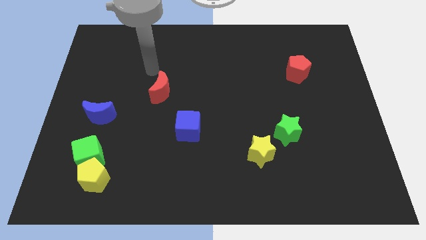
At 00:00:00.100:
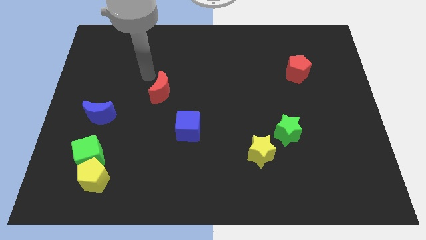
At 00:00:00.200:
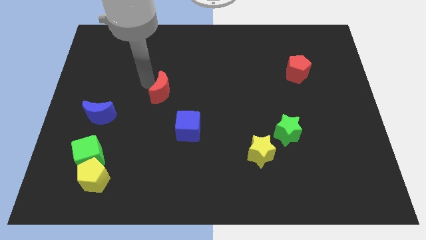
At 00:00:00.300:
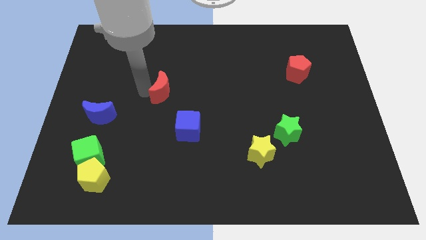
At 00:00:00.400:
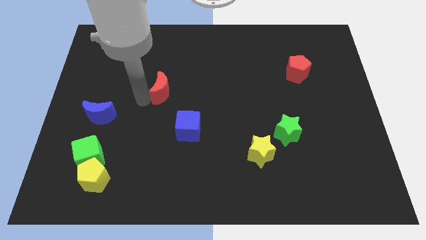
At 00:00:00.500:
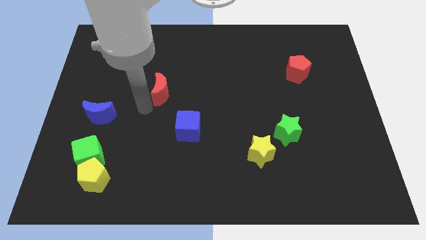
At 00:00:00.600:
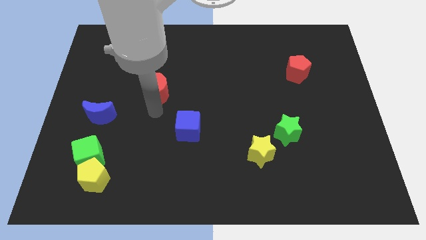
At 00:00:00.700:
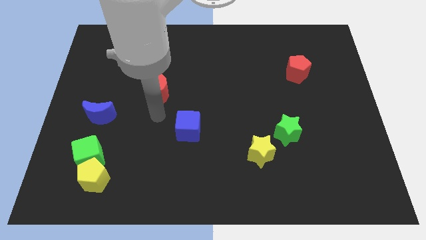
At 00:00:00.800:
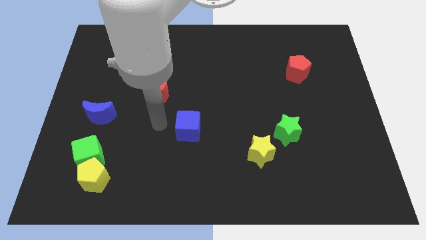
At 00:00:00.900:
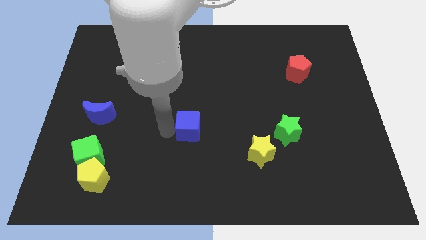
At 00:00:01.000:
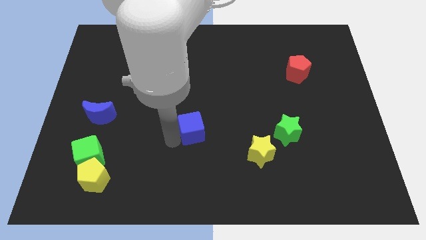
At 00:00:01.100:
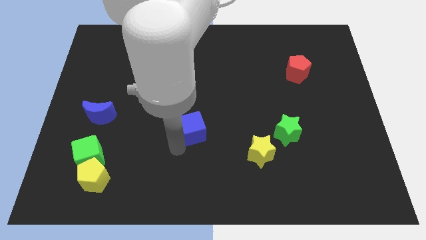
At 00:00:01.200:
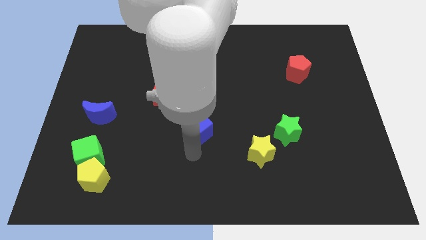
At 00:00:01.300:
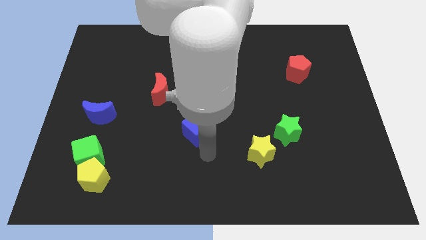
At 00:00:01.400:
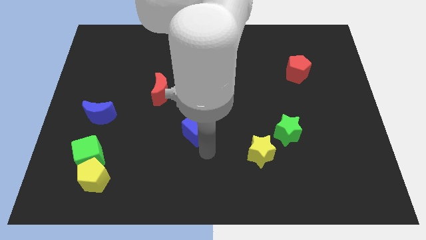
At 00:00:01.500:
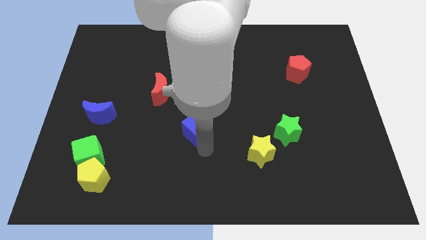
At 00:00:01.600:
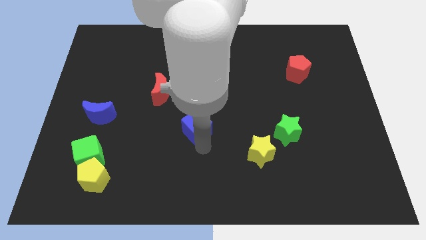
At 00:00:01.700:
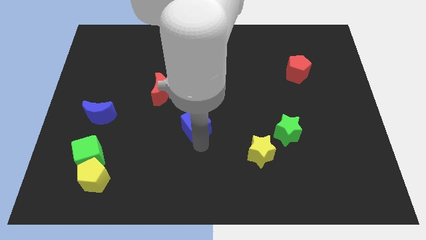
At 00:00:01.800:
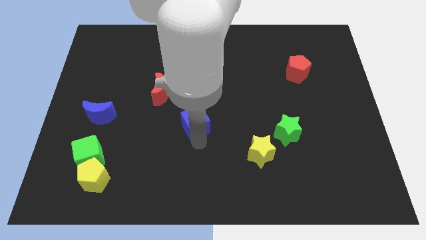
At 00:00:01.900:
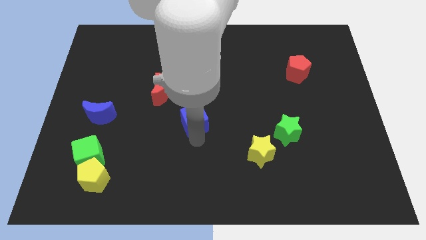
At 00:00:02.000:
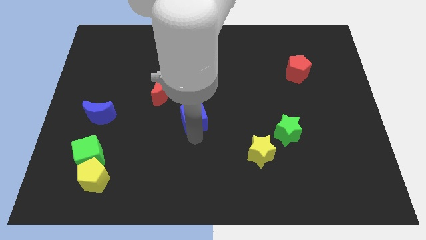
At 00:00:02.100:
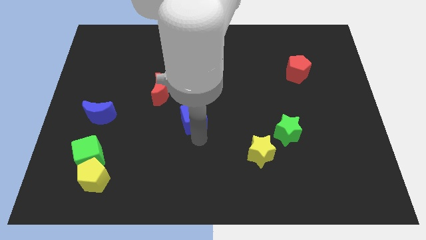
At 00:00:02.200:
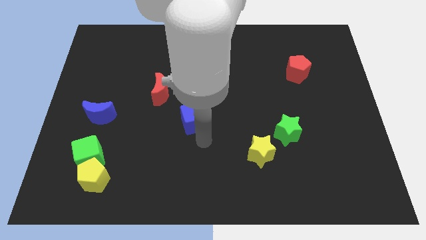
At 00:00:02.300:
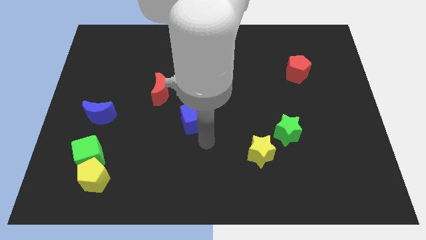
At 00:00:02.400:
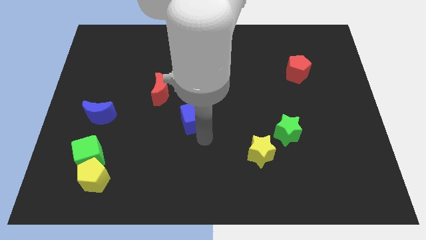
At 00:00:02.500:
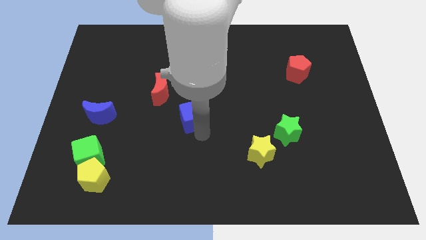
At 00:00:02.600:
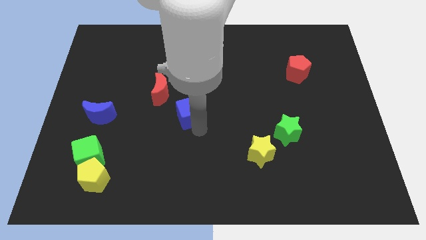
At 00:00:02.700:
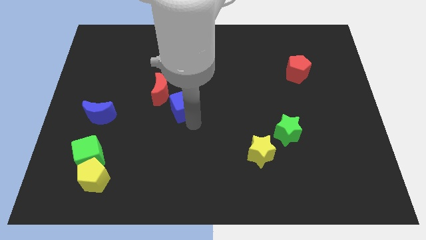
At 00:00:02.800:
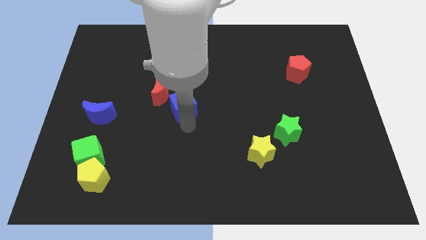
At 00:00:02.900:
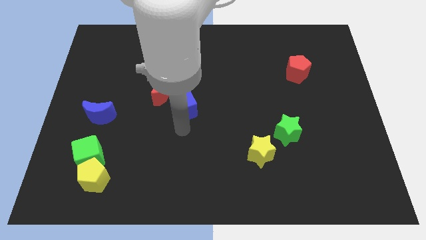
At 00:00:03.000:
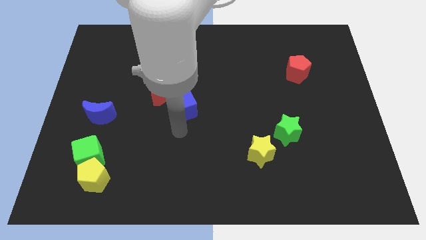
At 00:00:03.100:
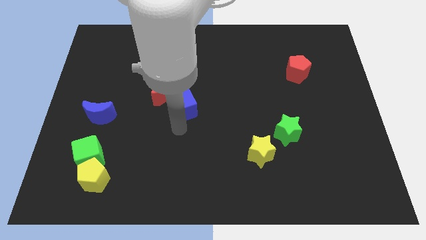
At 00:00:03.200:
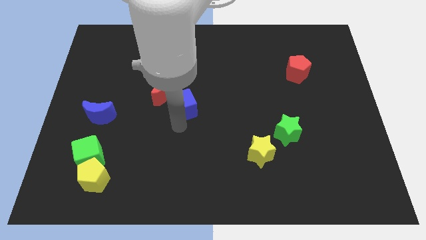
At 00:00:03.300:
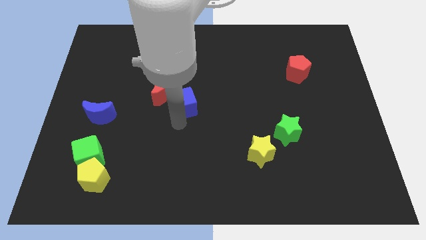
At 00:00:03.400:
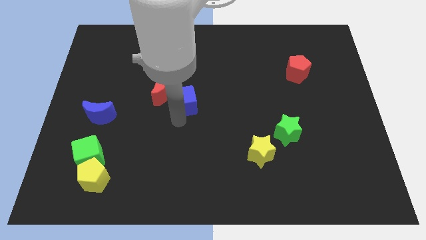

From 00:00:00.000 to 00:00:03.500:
move the blue cube upwards a bit

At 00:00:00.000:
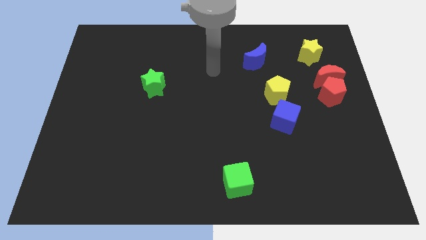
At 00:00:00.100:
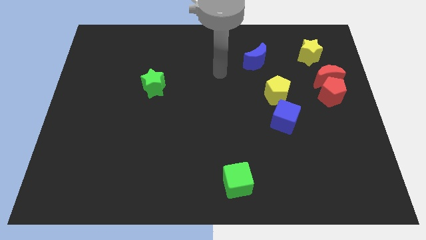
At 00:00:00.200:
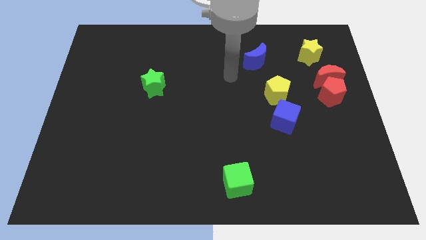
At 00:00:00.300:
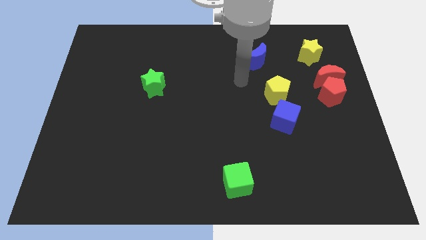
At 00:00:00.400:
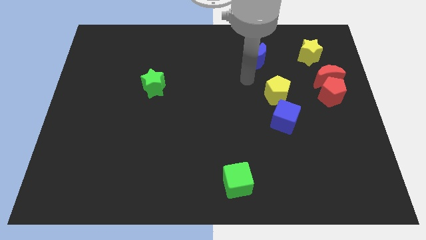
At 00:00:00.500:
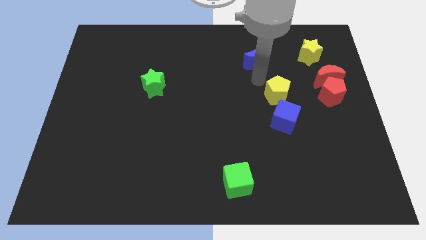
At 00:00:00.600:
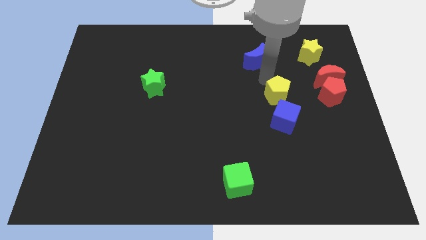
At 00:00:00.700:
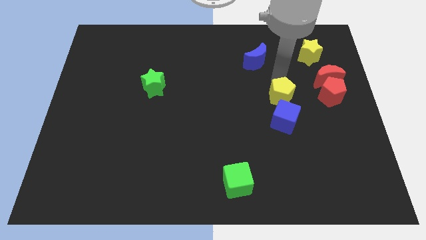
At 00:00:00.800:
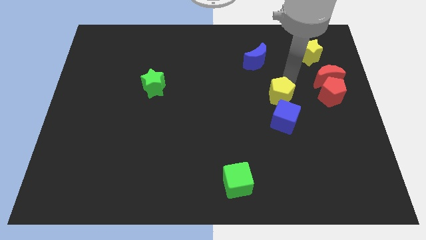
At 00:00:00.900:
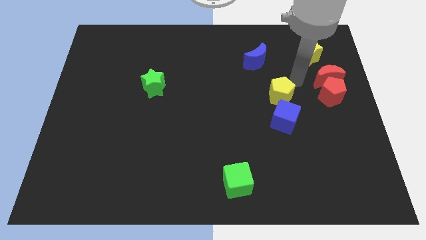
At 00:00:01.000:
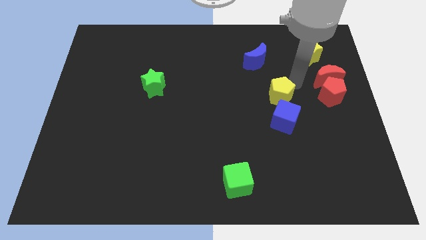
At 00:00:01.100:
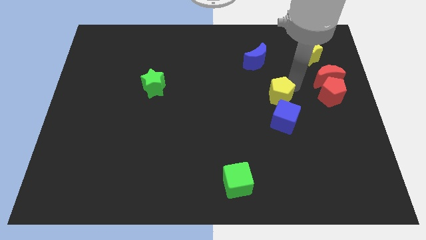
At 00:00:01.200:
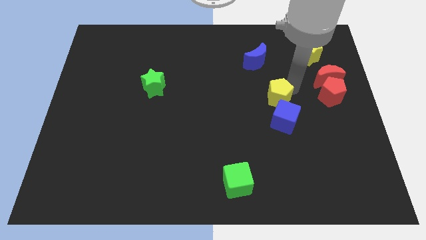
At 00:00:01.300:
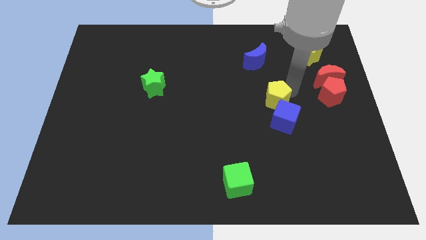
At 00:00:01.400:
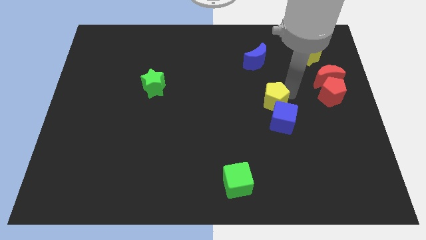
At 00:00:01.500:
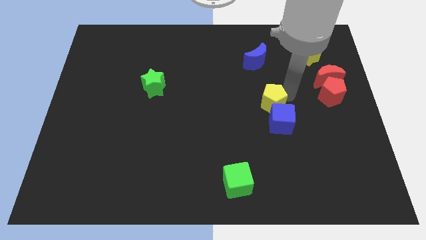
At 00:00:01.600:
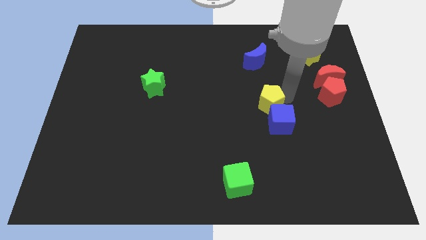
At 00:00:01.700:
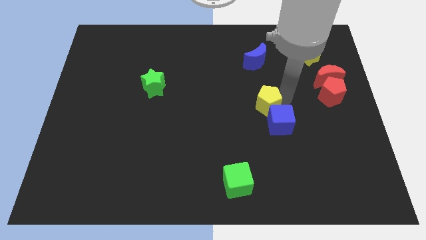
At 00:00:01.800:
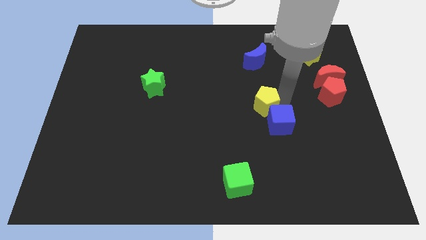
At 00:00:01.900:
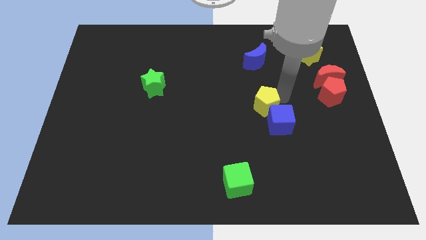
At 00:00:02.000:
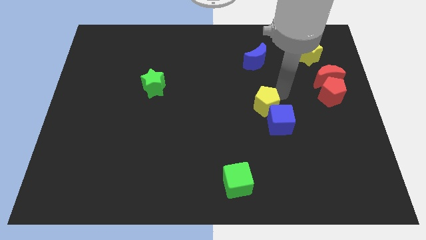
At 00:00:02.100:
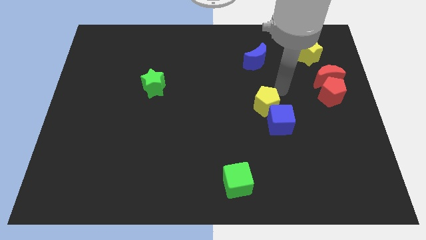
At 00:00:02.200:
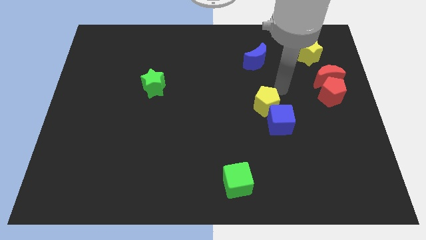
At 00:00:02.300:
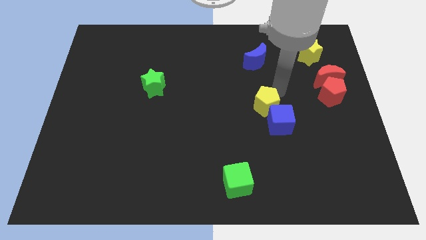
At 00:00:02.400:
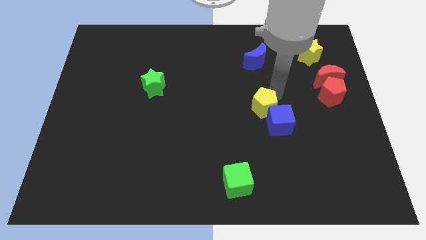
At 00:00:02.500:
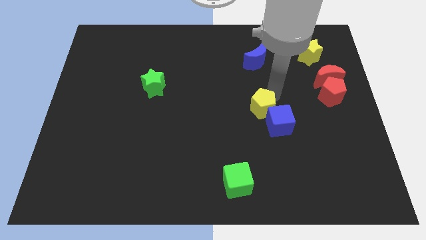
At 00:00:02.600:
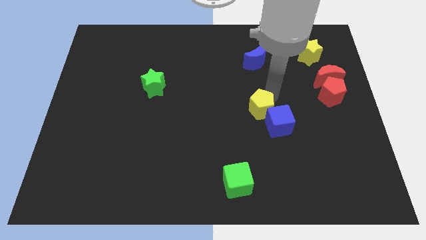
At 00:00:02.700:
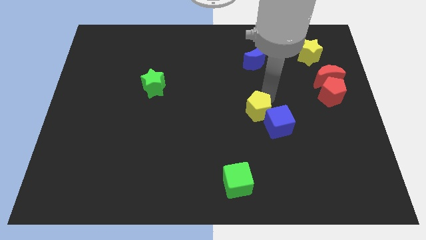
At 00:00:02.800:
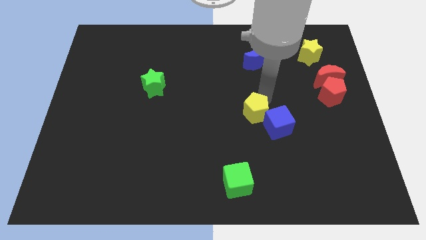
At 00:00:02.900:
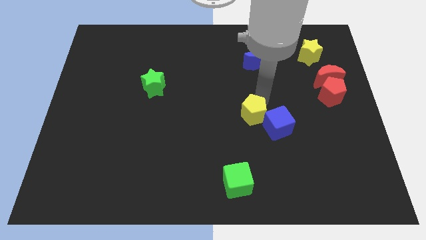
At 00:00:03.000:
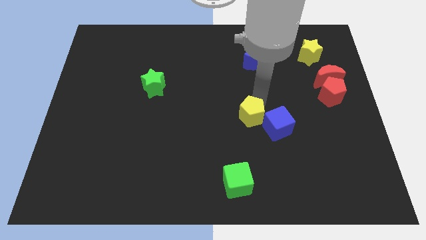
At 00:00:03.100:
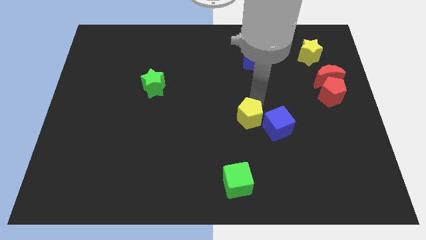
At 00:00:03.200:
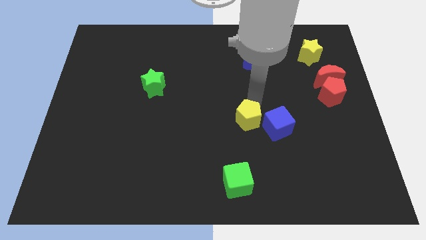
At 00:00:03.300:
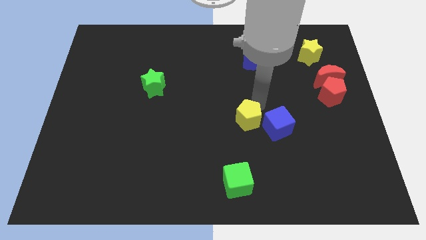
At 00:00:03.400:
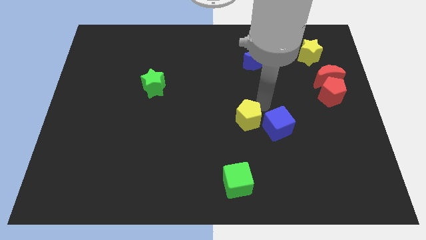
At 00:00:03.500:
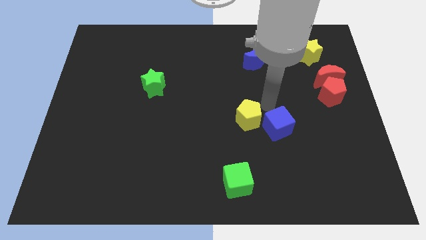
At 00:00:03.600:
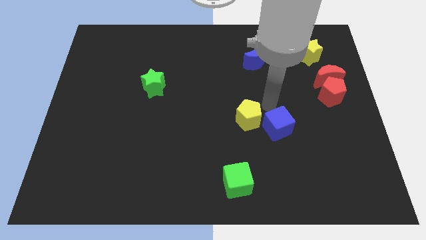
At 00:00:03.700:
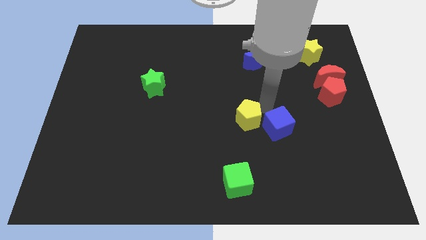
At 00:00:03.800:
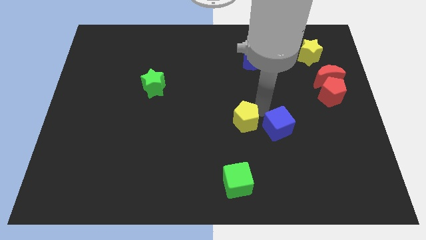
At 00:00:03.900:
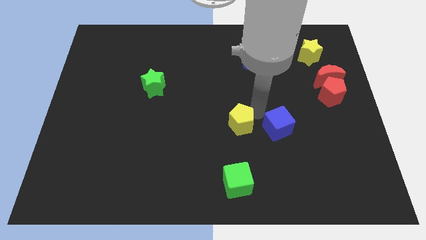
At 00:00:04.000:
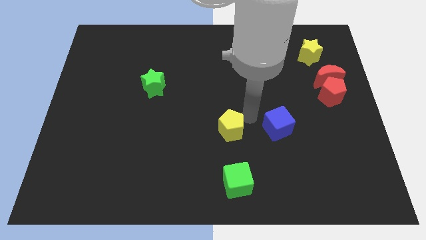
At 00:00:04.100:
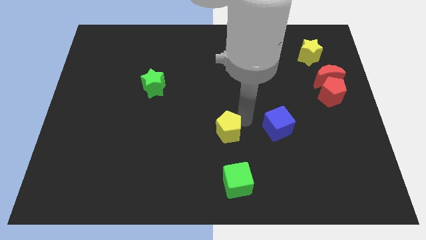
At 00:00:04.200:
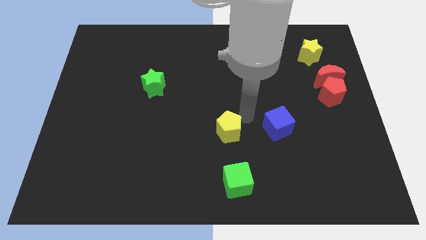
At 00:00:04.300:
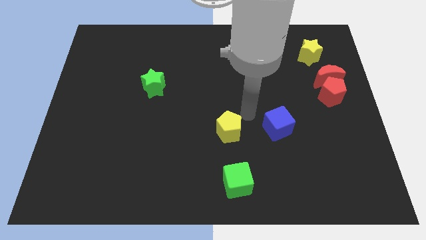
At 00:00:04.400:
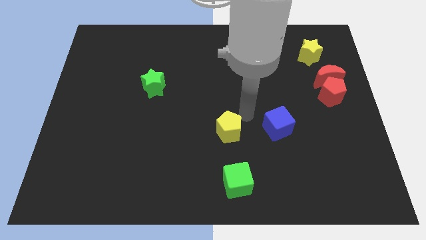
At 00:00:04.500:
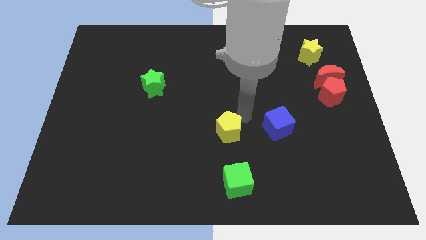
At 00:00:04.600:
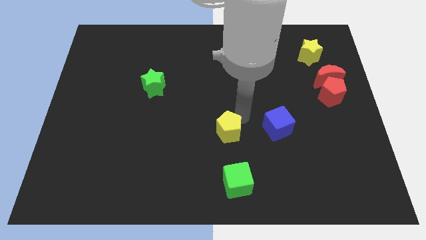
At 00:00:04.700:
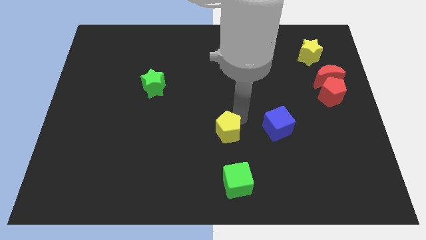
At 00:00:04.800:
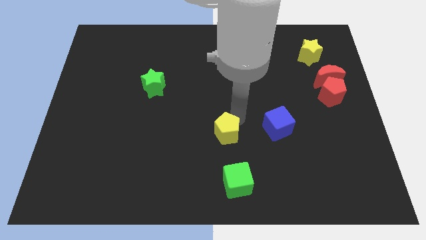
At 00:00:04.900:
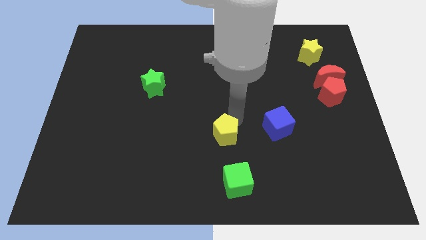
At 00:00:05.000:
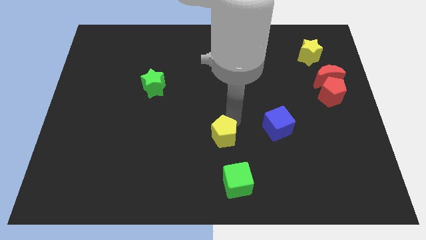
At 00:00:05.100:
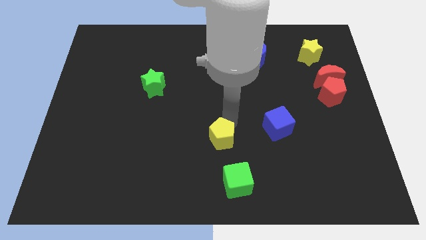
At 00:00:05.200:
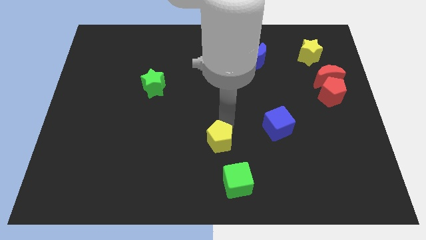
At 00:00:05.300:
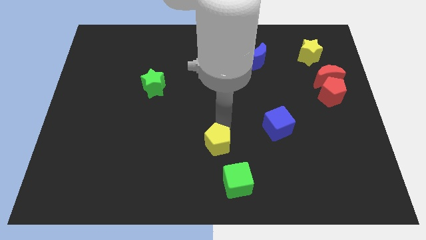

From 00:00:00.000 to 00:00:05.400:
push the yellow pentagon downwards and to the left diagonally
